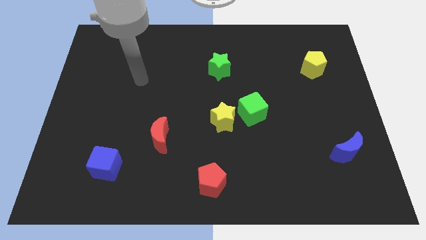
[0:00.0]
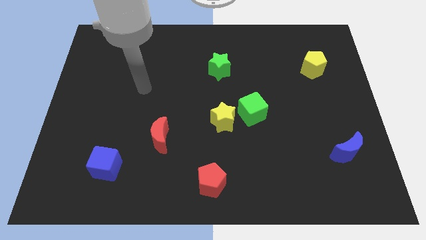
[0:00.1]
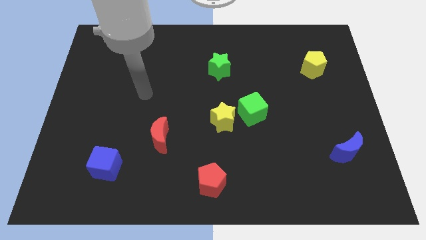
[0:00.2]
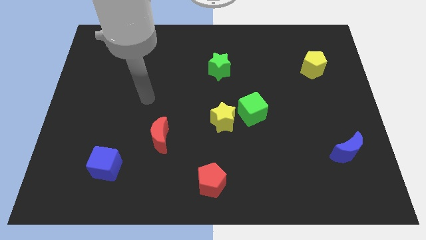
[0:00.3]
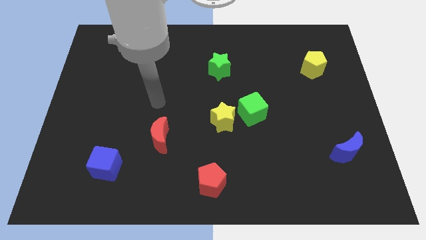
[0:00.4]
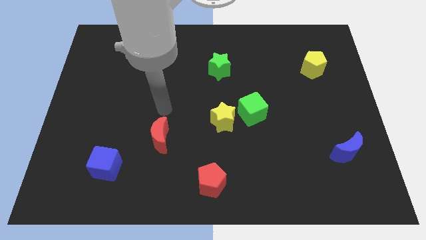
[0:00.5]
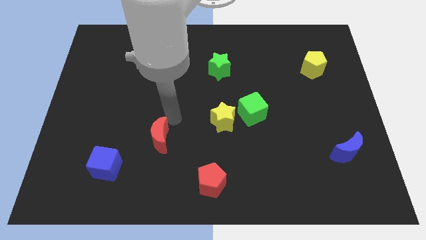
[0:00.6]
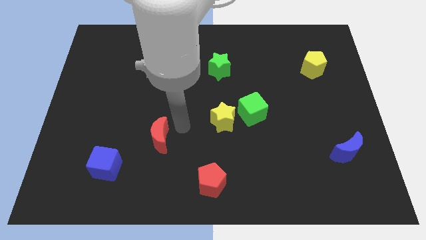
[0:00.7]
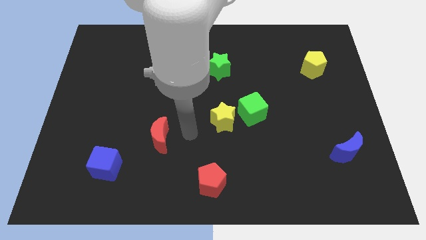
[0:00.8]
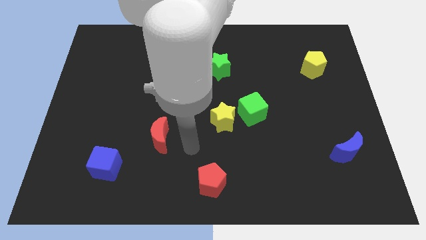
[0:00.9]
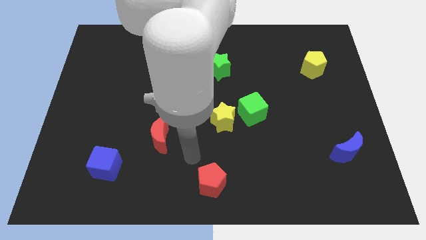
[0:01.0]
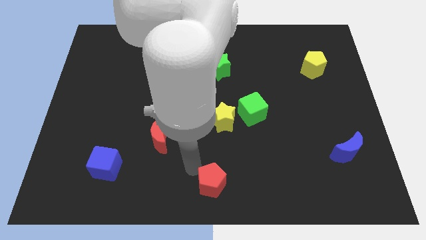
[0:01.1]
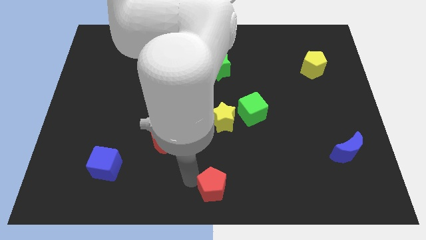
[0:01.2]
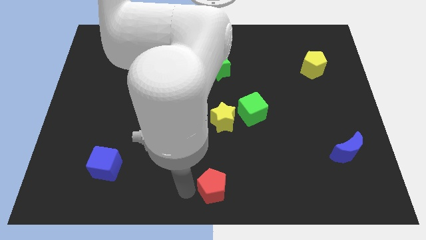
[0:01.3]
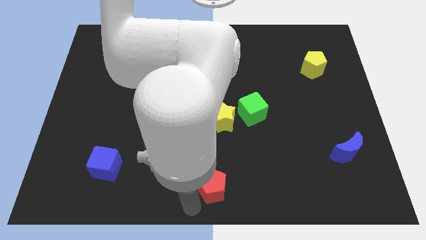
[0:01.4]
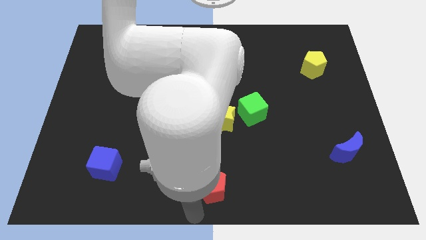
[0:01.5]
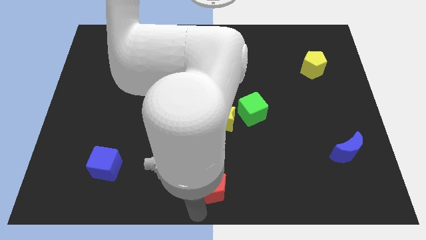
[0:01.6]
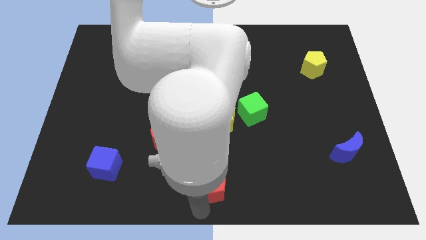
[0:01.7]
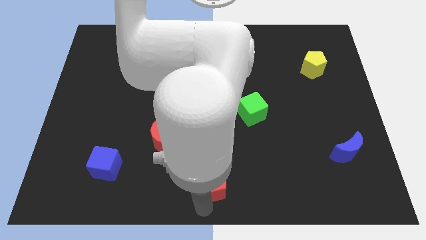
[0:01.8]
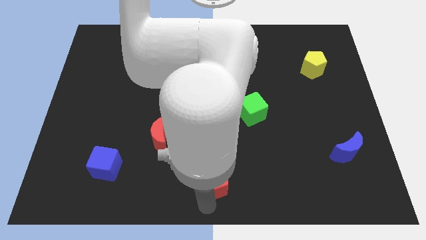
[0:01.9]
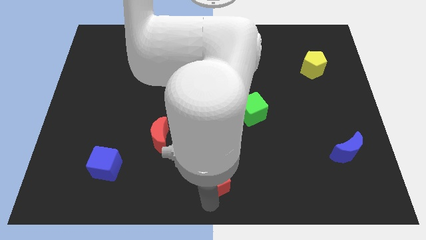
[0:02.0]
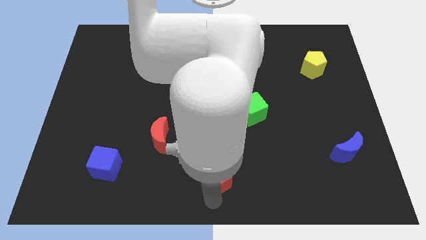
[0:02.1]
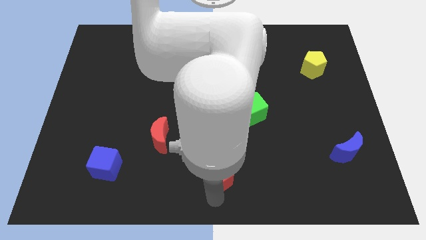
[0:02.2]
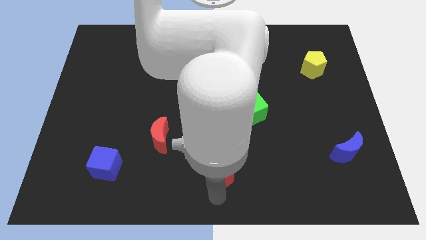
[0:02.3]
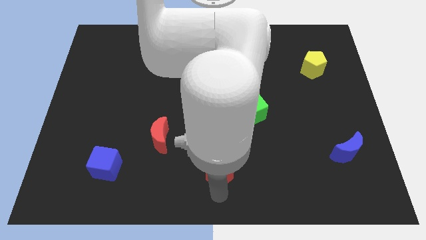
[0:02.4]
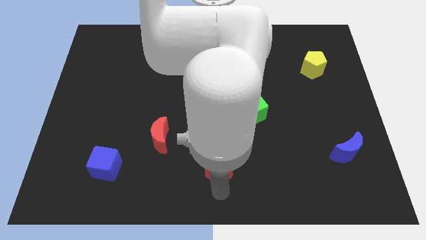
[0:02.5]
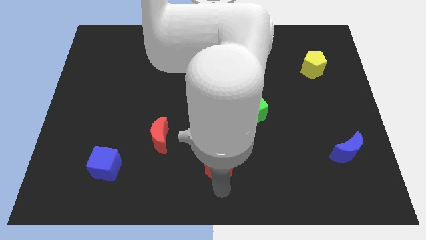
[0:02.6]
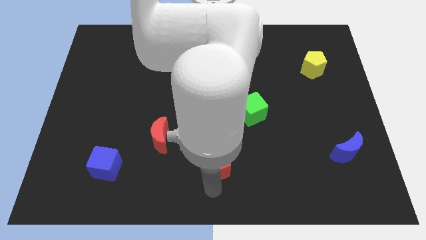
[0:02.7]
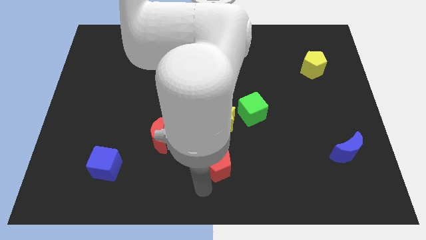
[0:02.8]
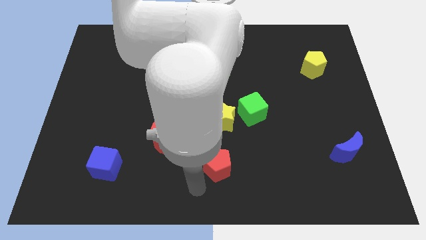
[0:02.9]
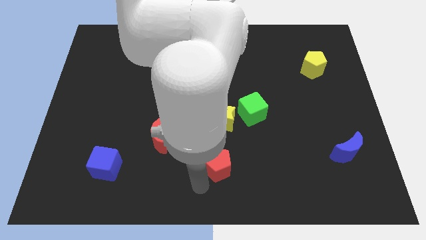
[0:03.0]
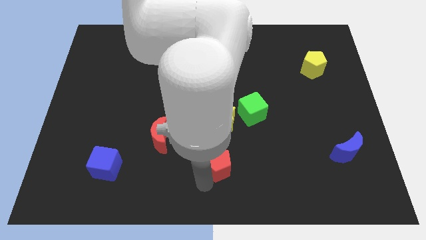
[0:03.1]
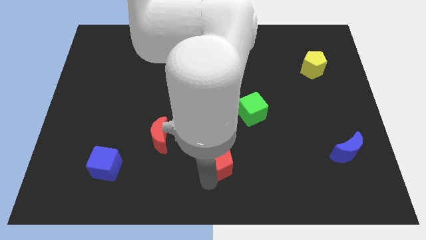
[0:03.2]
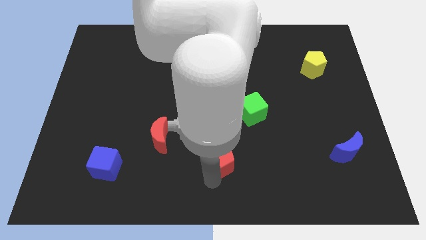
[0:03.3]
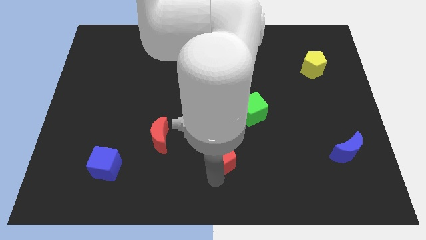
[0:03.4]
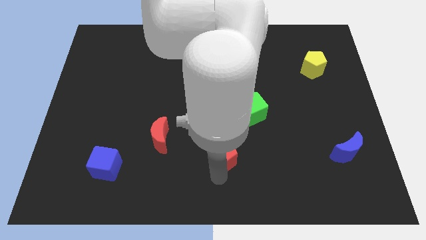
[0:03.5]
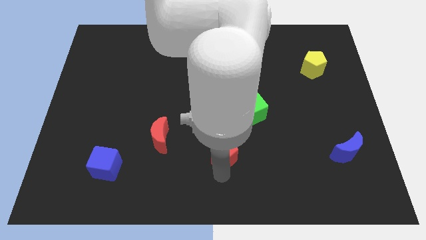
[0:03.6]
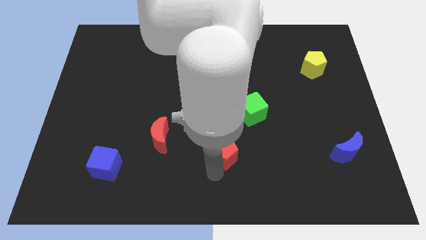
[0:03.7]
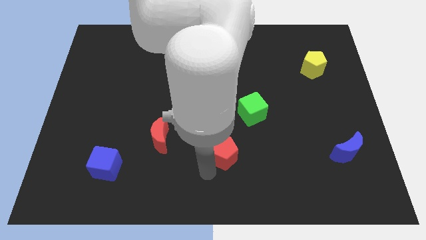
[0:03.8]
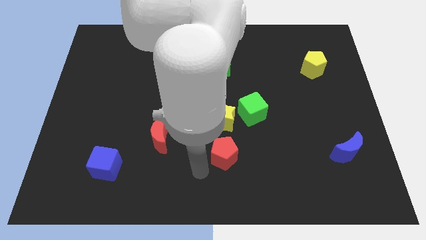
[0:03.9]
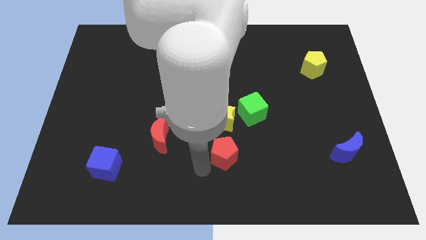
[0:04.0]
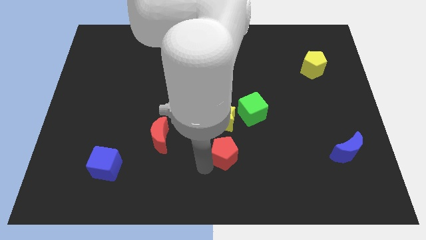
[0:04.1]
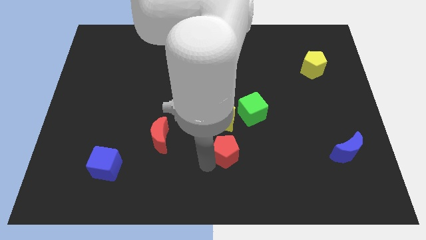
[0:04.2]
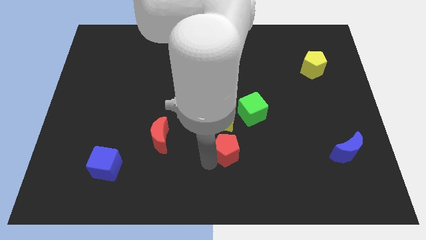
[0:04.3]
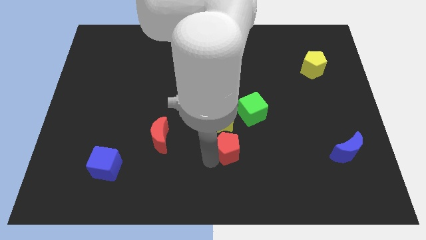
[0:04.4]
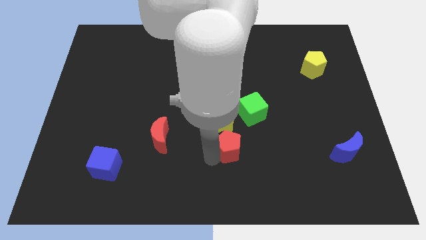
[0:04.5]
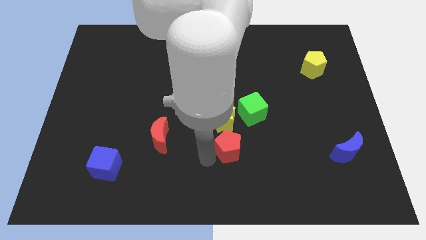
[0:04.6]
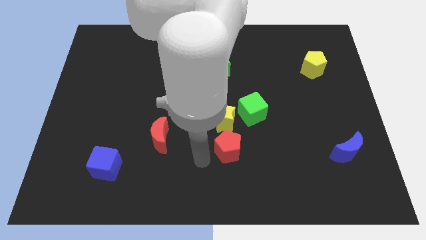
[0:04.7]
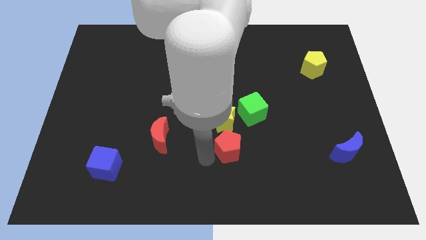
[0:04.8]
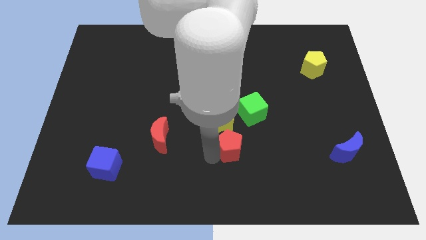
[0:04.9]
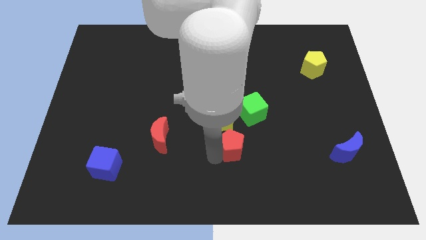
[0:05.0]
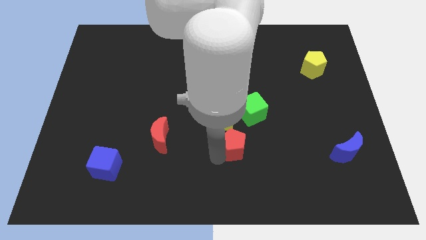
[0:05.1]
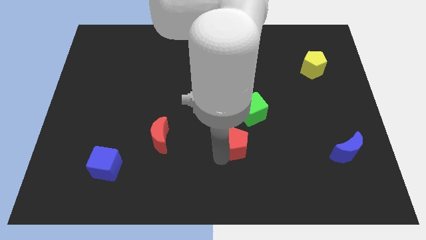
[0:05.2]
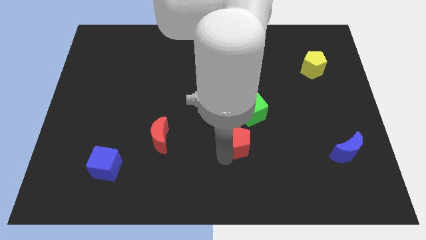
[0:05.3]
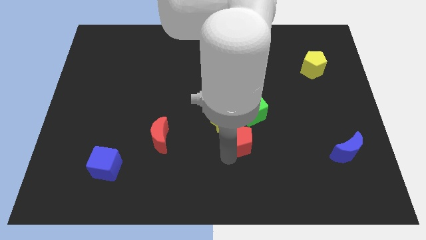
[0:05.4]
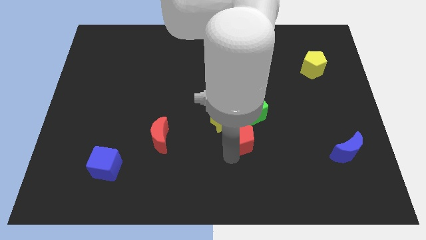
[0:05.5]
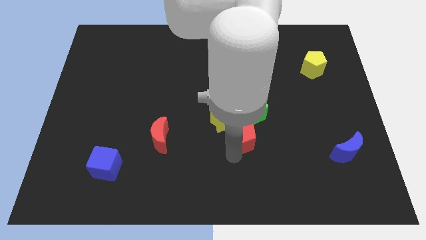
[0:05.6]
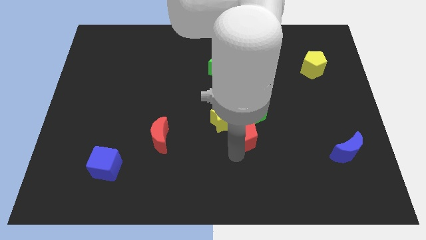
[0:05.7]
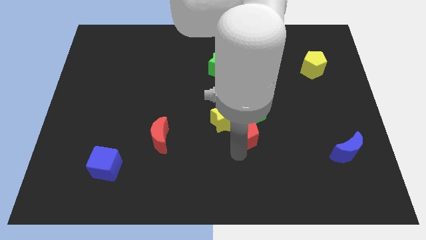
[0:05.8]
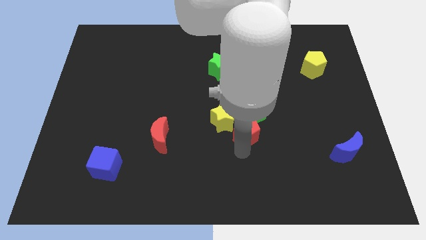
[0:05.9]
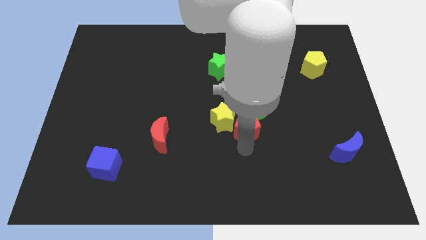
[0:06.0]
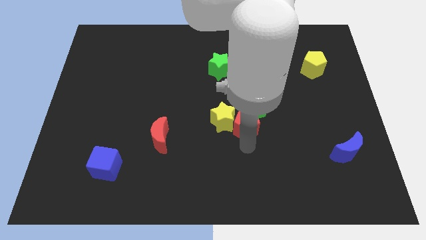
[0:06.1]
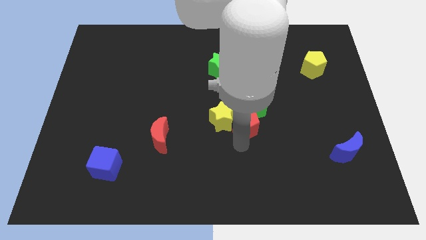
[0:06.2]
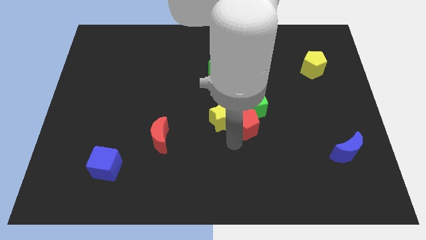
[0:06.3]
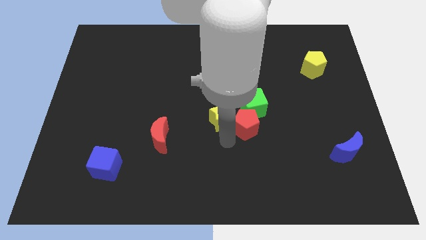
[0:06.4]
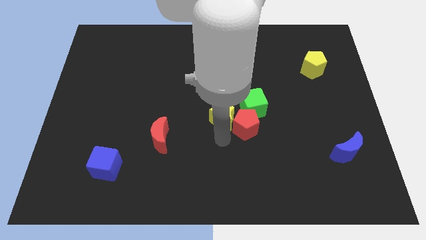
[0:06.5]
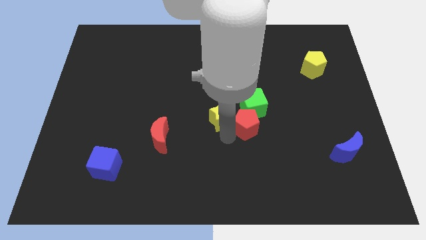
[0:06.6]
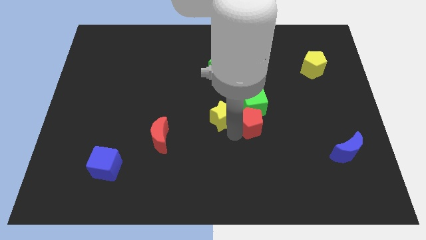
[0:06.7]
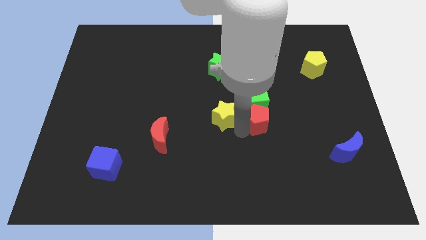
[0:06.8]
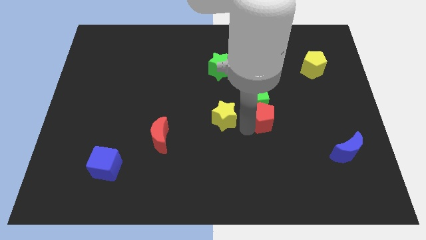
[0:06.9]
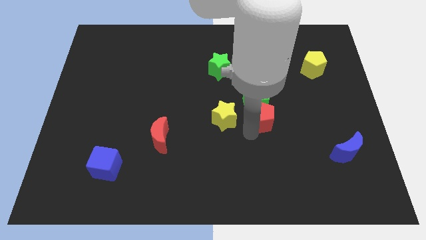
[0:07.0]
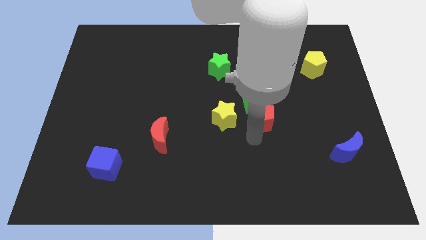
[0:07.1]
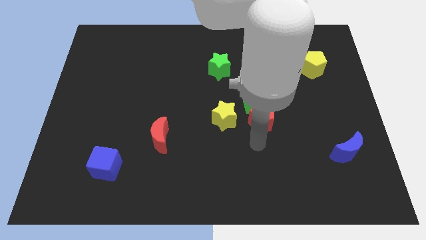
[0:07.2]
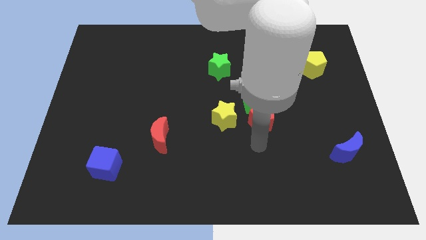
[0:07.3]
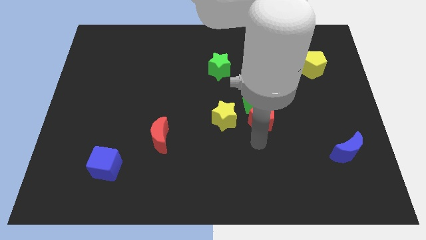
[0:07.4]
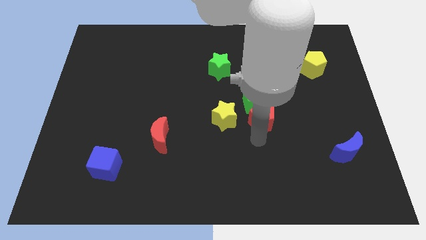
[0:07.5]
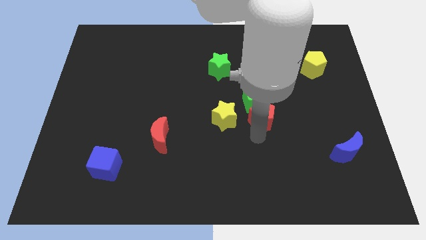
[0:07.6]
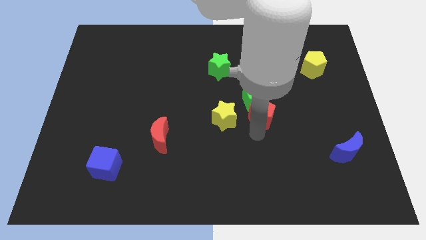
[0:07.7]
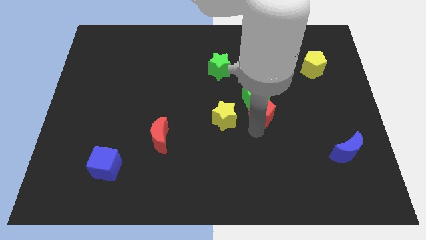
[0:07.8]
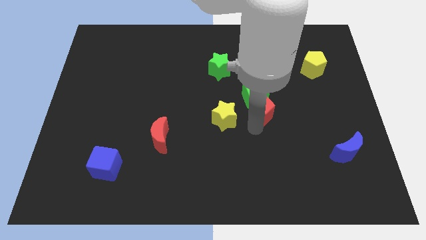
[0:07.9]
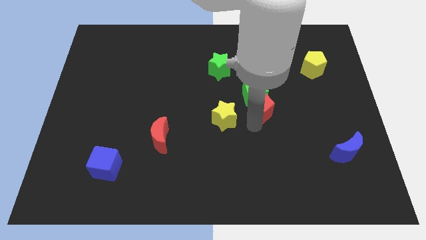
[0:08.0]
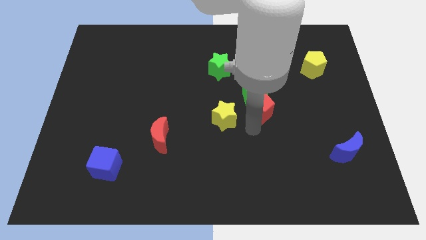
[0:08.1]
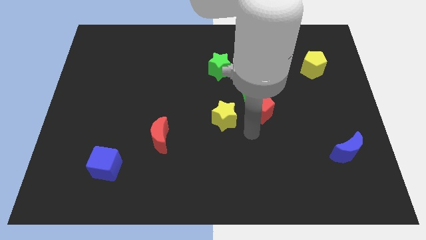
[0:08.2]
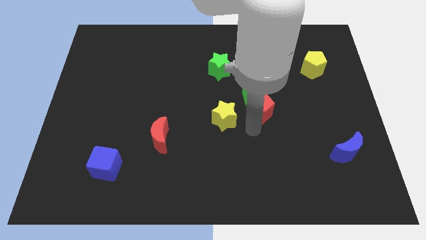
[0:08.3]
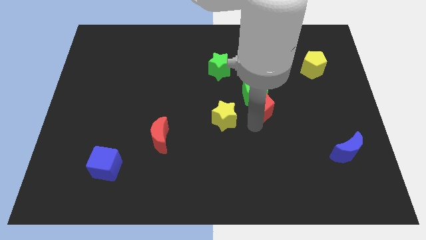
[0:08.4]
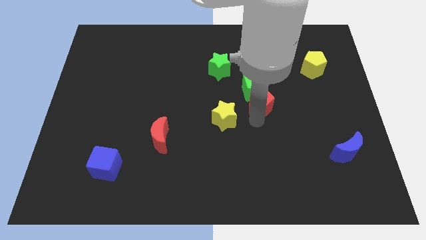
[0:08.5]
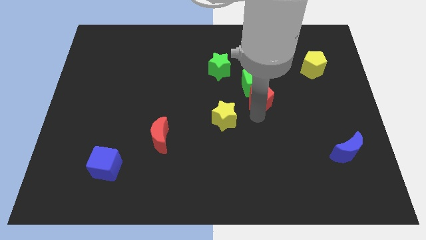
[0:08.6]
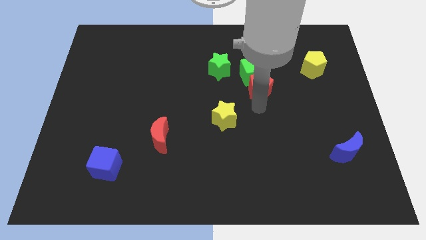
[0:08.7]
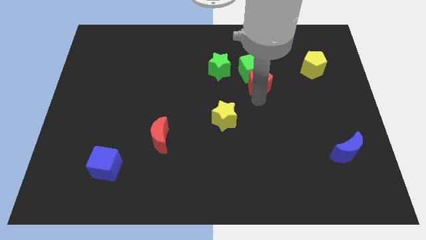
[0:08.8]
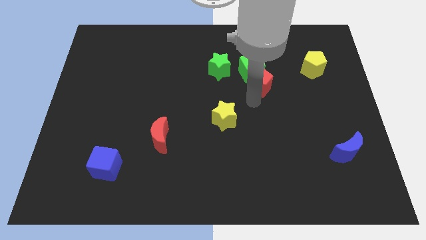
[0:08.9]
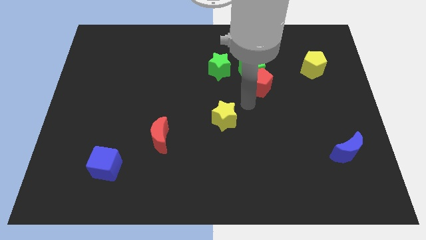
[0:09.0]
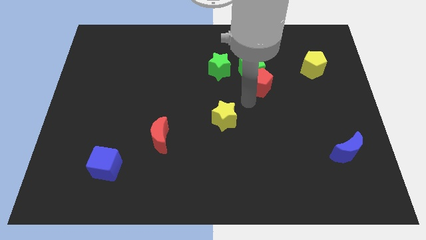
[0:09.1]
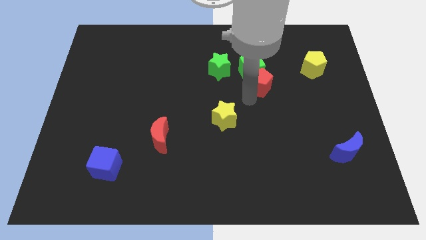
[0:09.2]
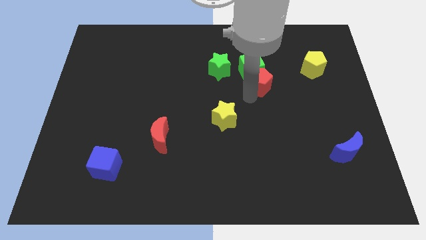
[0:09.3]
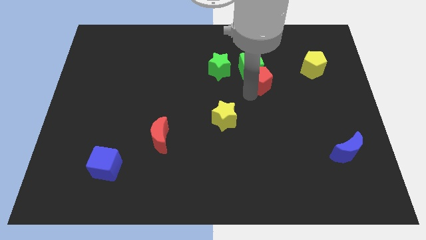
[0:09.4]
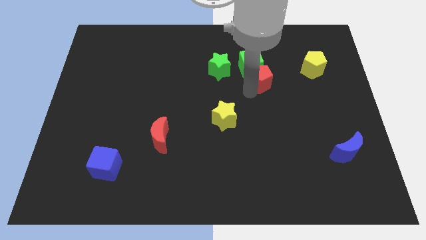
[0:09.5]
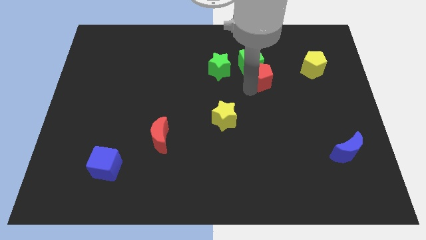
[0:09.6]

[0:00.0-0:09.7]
put the red pentagon just left of the yellow pentagon
